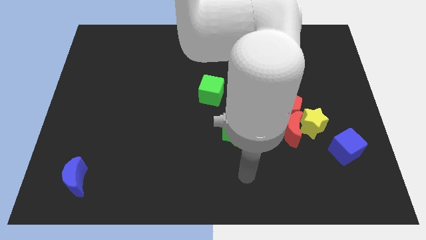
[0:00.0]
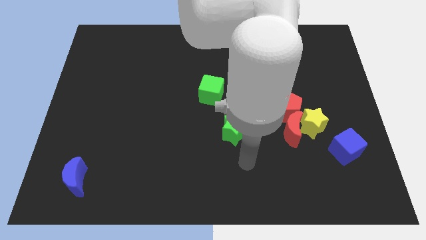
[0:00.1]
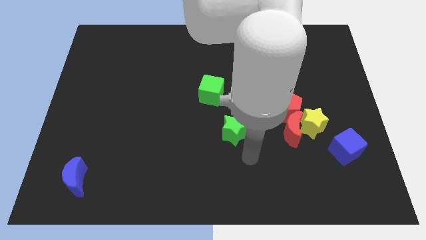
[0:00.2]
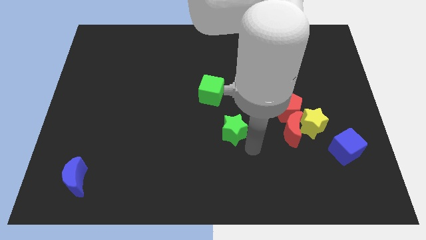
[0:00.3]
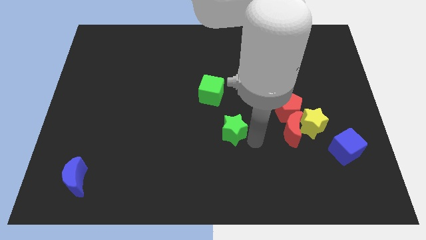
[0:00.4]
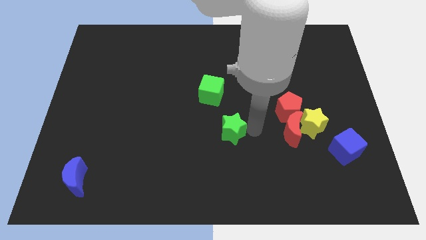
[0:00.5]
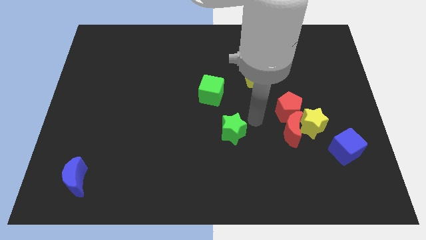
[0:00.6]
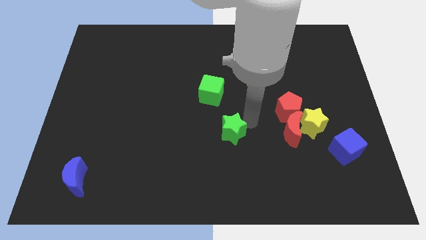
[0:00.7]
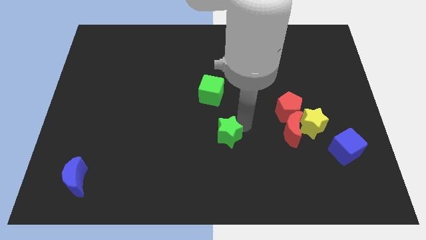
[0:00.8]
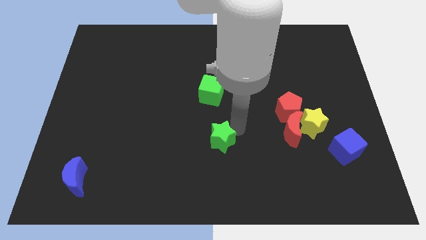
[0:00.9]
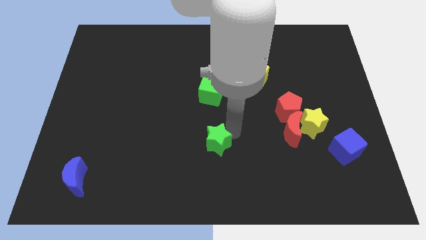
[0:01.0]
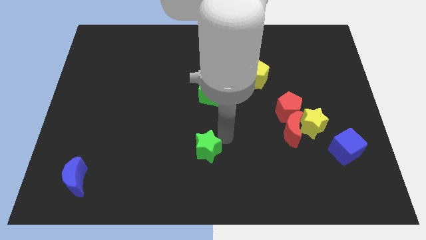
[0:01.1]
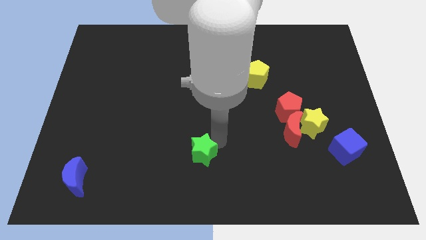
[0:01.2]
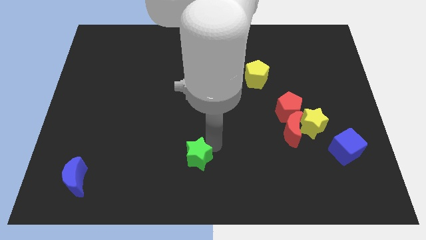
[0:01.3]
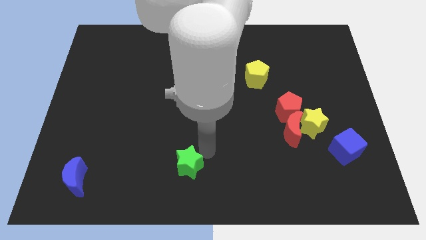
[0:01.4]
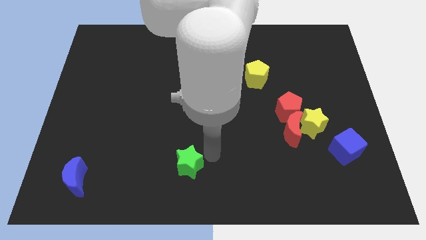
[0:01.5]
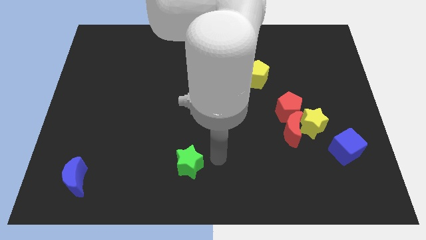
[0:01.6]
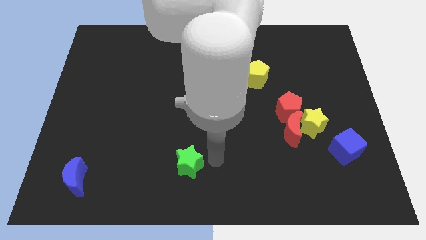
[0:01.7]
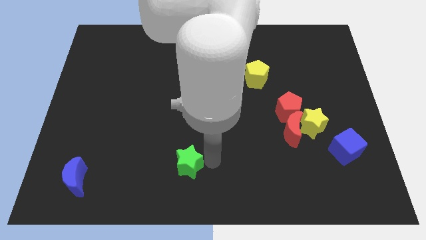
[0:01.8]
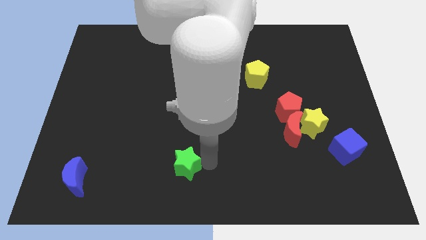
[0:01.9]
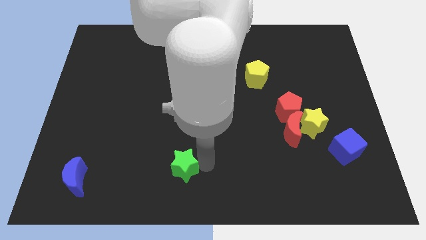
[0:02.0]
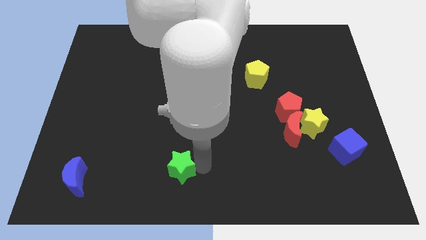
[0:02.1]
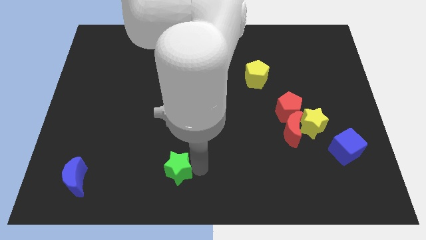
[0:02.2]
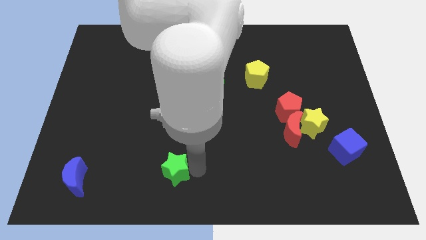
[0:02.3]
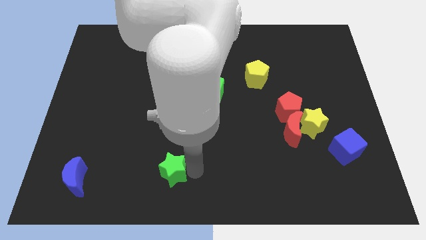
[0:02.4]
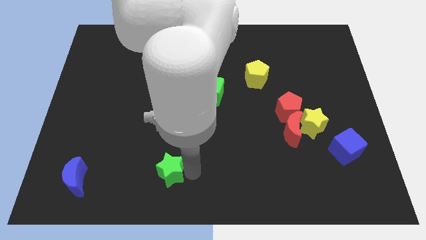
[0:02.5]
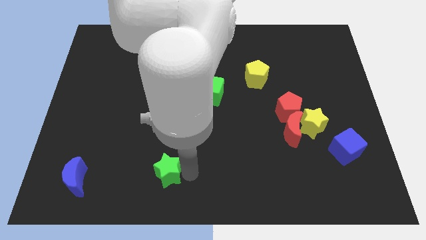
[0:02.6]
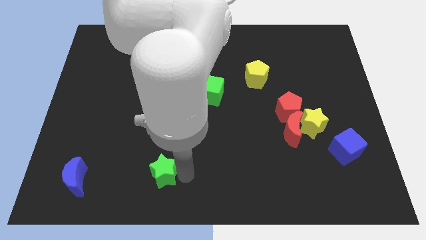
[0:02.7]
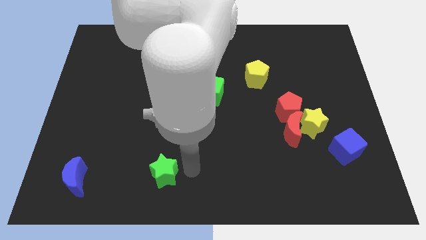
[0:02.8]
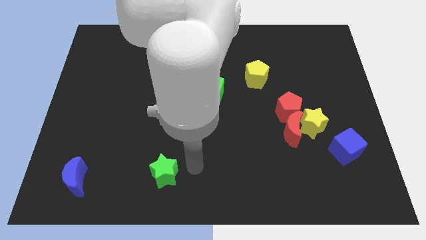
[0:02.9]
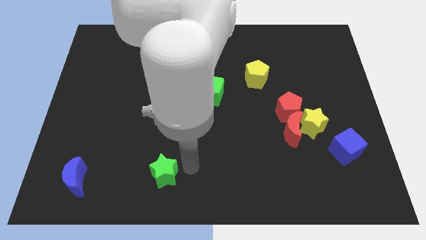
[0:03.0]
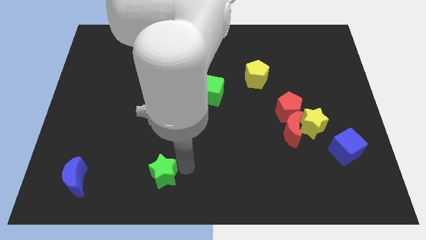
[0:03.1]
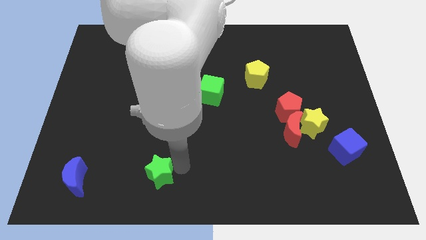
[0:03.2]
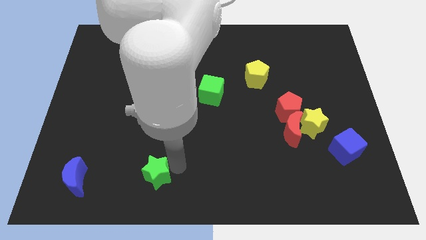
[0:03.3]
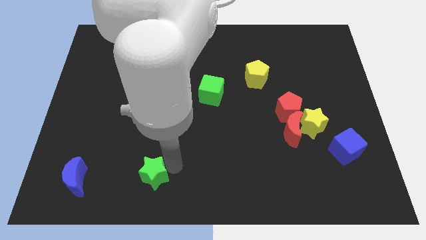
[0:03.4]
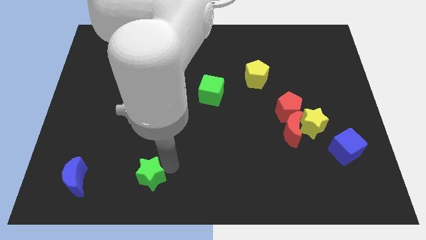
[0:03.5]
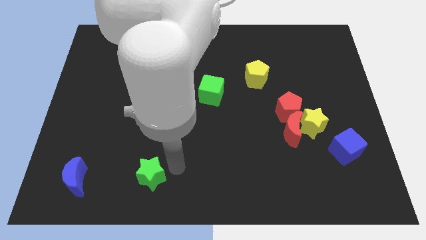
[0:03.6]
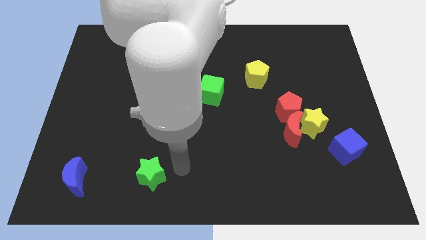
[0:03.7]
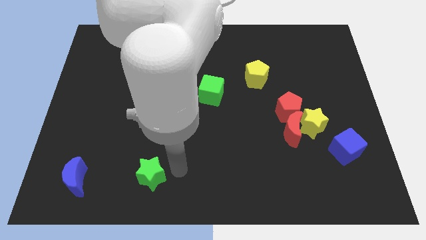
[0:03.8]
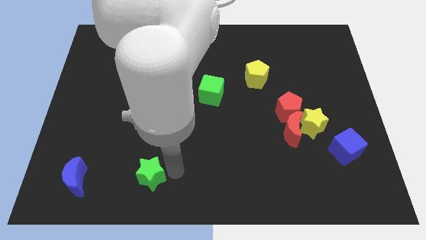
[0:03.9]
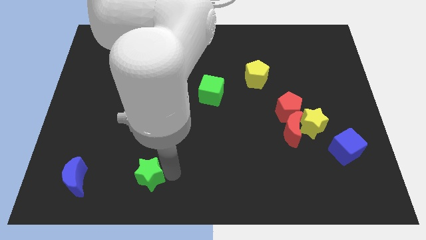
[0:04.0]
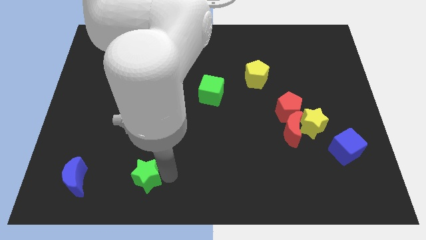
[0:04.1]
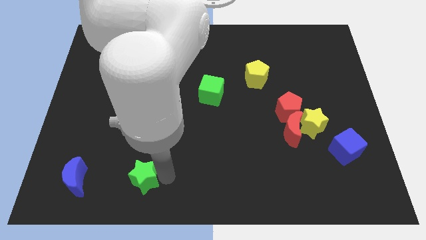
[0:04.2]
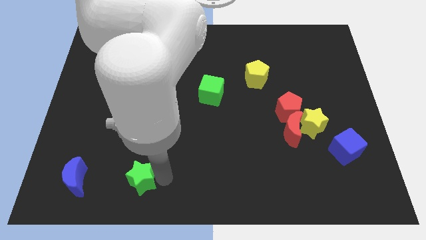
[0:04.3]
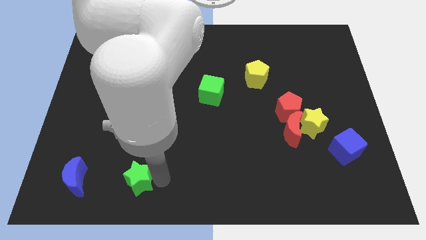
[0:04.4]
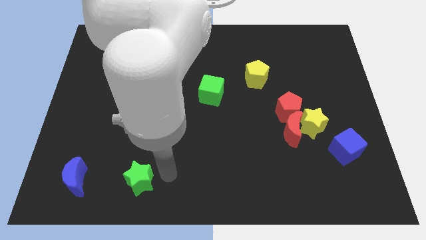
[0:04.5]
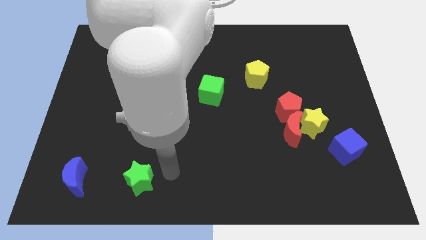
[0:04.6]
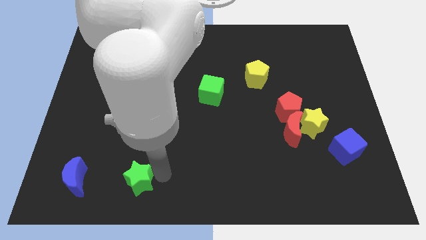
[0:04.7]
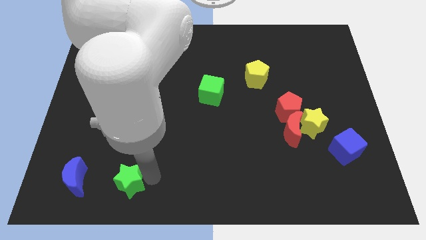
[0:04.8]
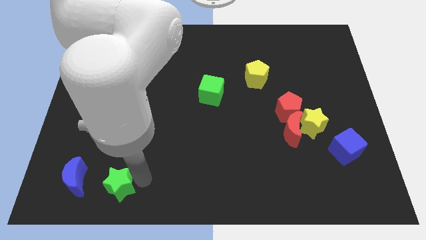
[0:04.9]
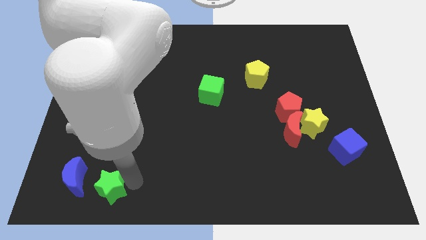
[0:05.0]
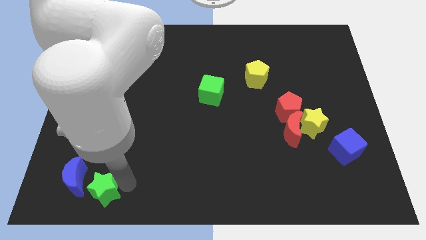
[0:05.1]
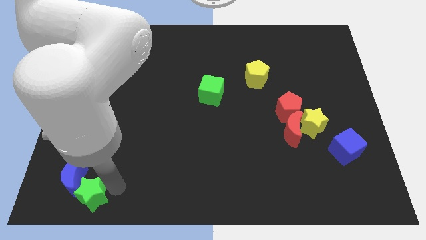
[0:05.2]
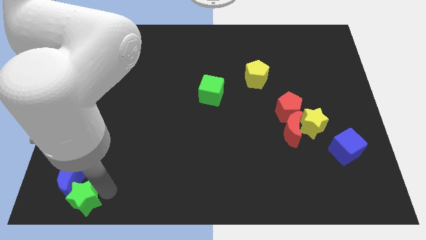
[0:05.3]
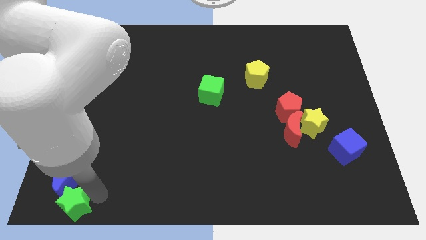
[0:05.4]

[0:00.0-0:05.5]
push the green star to the bottom left corner
